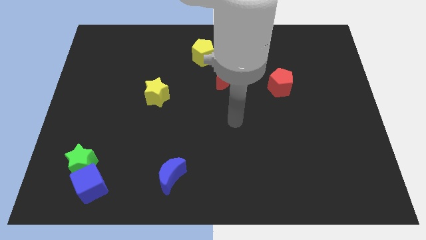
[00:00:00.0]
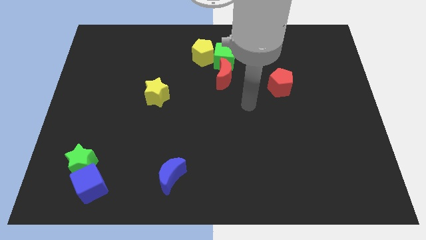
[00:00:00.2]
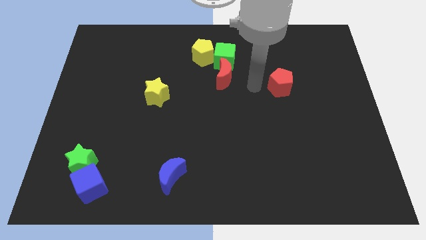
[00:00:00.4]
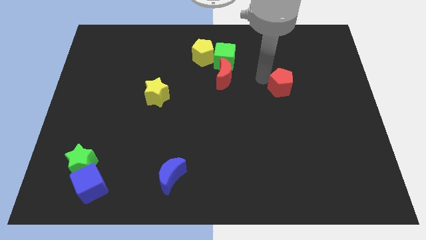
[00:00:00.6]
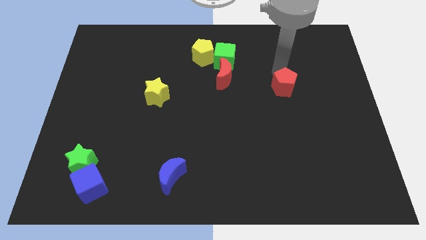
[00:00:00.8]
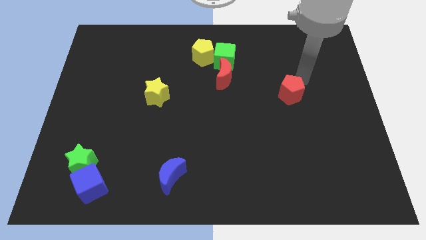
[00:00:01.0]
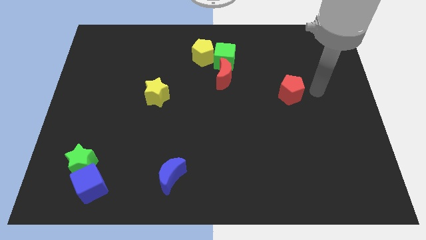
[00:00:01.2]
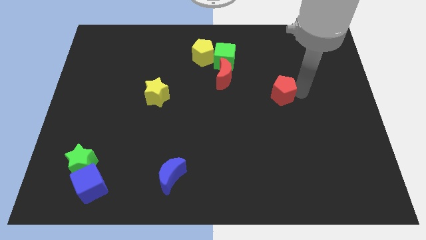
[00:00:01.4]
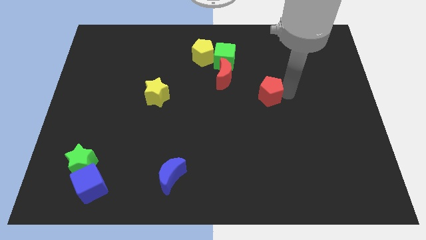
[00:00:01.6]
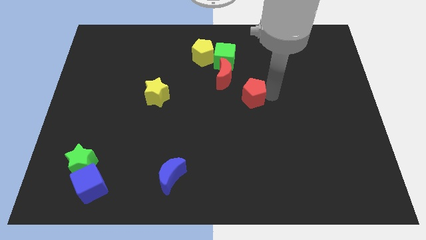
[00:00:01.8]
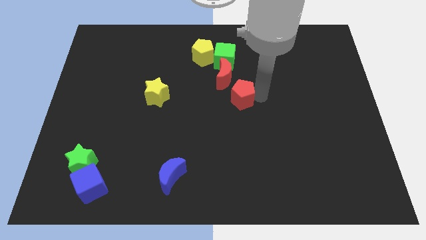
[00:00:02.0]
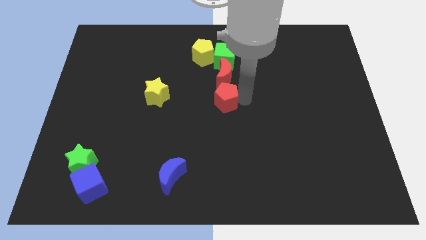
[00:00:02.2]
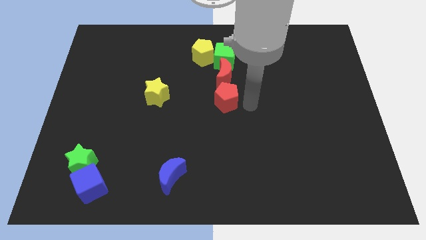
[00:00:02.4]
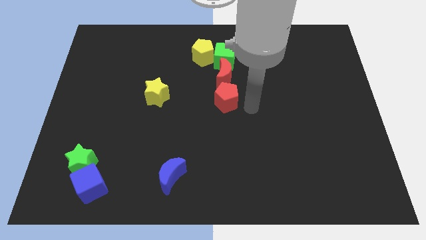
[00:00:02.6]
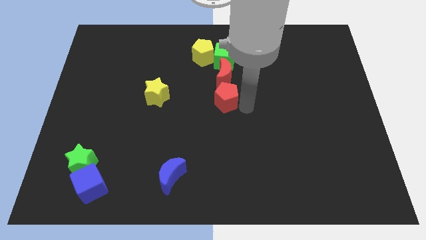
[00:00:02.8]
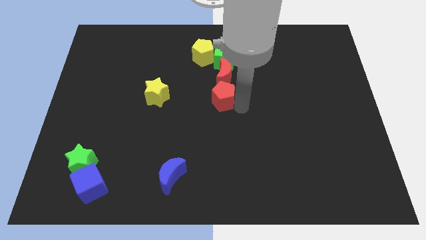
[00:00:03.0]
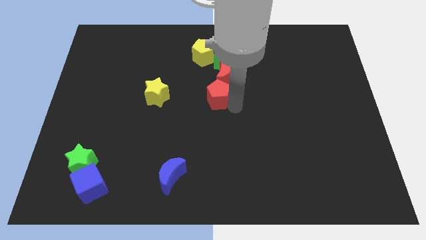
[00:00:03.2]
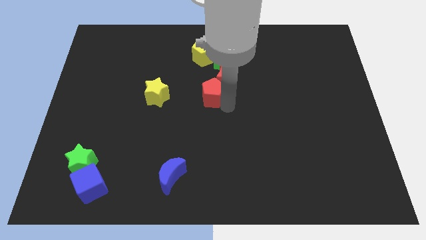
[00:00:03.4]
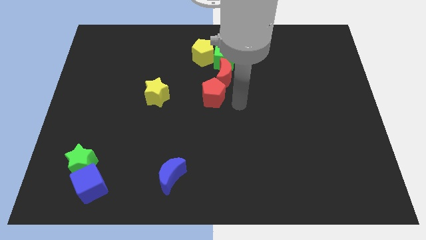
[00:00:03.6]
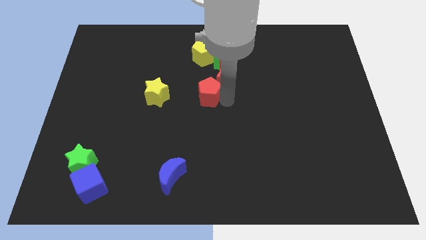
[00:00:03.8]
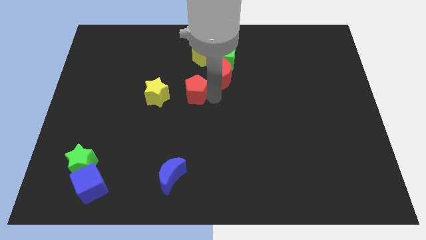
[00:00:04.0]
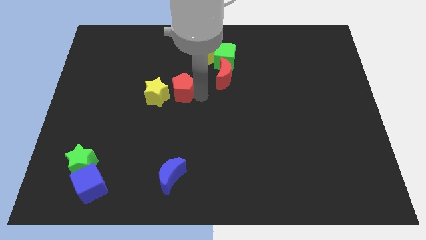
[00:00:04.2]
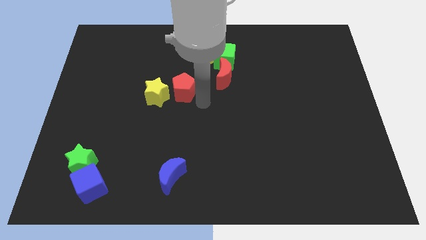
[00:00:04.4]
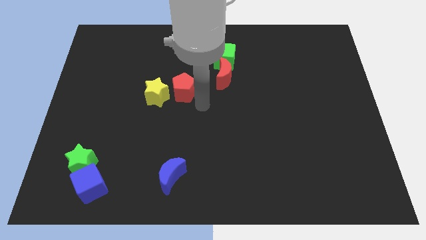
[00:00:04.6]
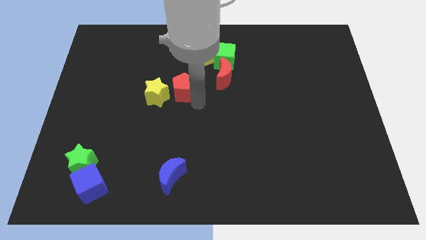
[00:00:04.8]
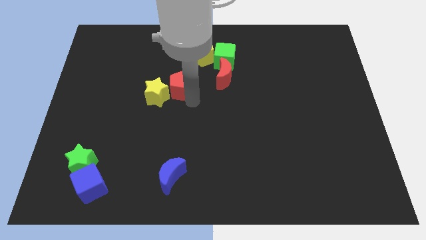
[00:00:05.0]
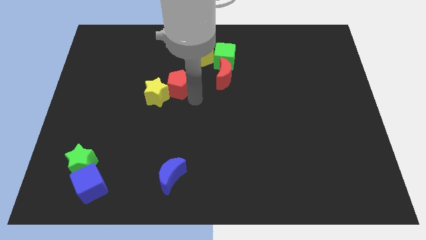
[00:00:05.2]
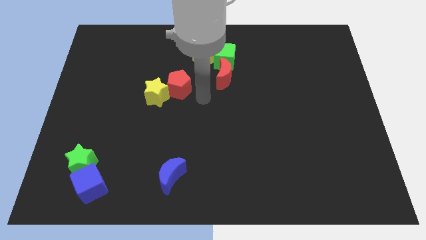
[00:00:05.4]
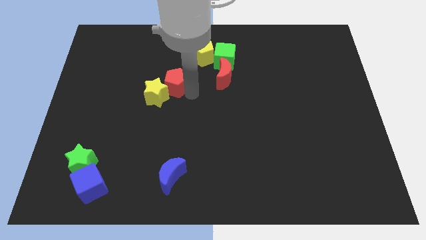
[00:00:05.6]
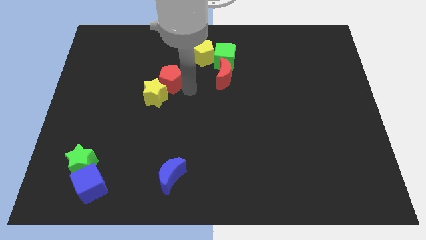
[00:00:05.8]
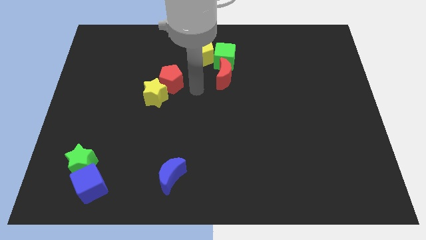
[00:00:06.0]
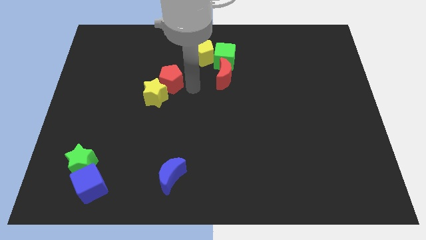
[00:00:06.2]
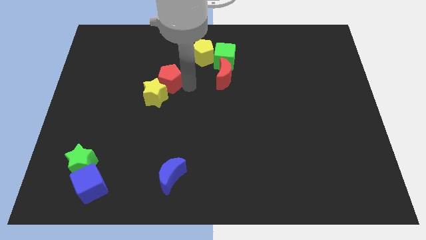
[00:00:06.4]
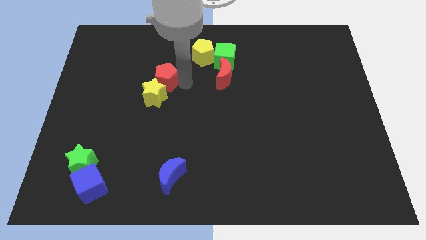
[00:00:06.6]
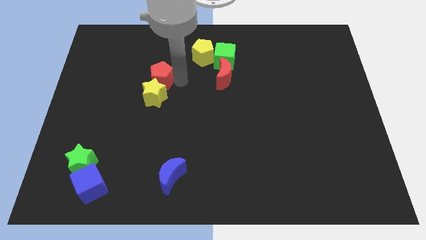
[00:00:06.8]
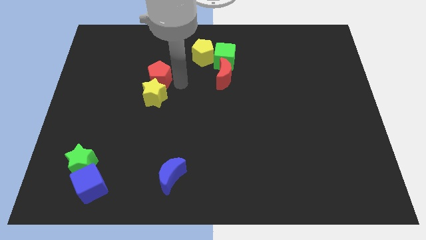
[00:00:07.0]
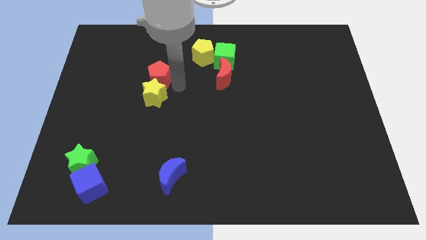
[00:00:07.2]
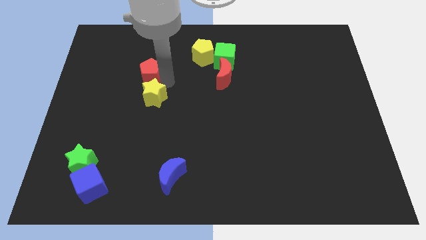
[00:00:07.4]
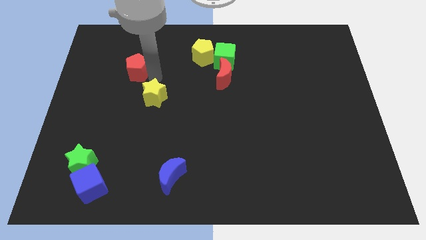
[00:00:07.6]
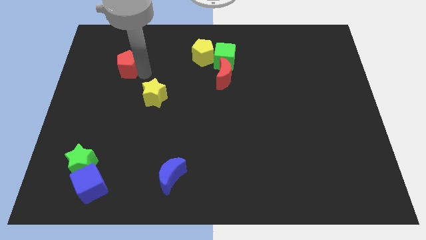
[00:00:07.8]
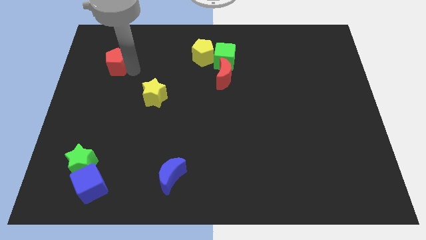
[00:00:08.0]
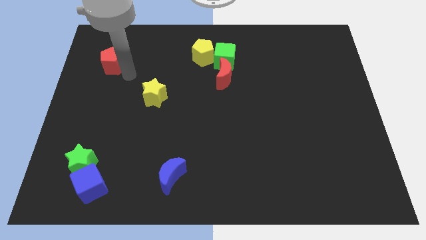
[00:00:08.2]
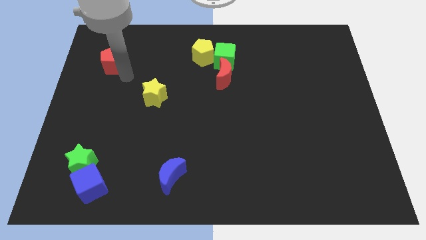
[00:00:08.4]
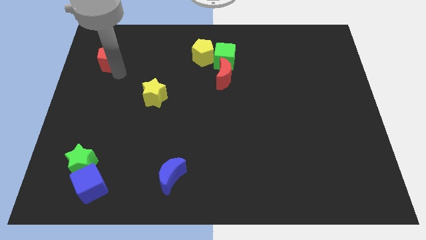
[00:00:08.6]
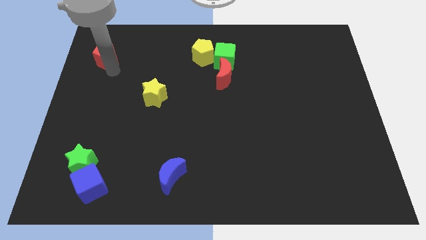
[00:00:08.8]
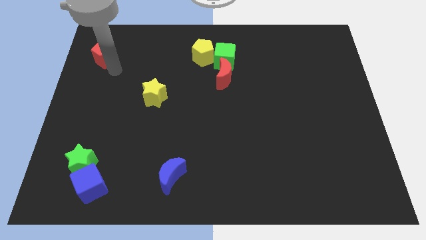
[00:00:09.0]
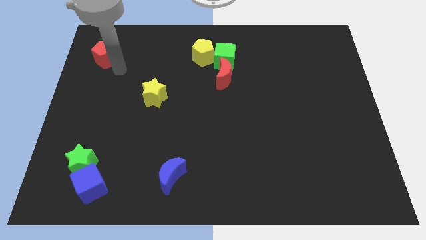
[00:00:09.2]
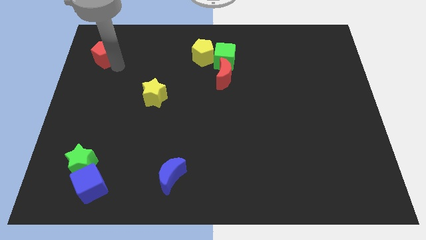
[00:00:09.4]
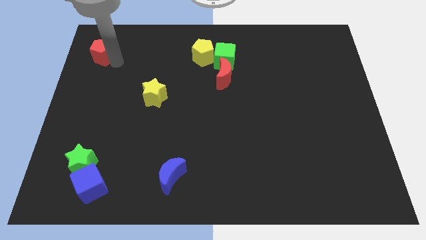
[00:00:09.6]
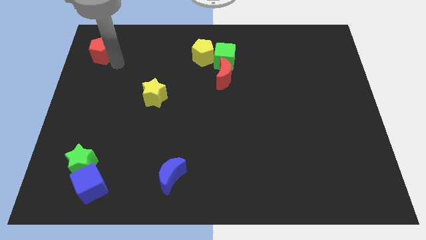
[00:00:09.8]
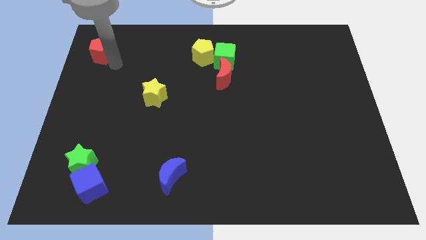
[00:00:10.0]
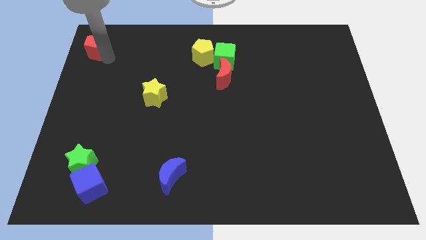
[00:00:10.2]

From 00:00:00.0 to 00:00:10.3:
slide the red pentagon to the top left of the board

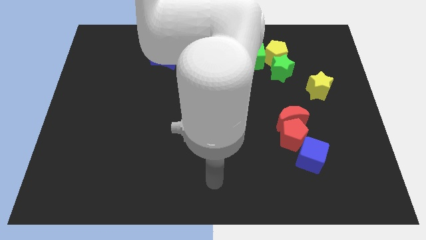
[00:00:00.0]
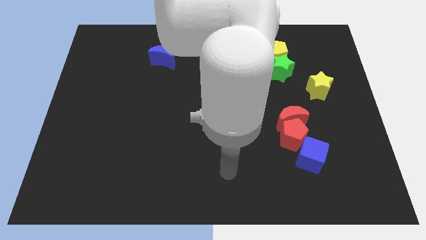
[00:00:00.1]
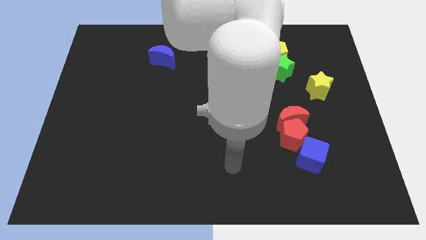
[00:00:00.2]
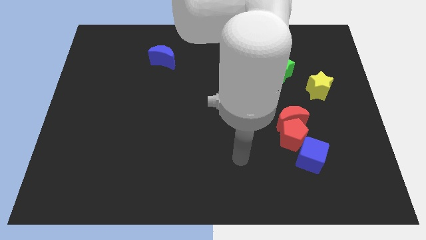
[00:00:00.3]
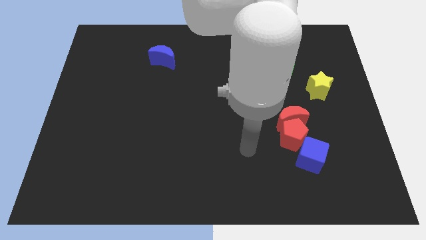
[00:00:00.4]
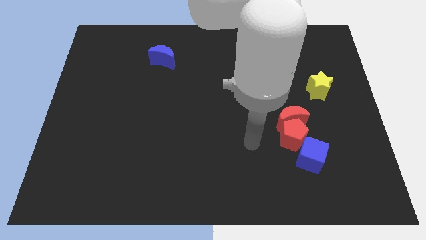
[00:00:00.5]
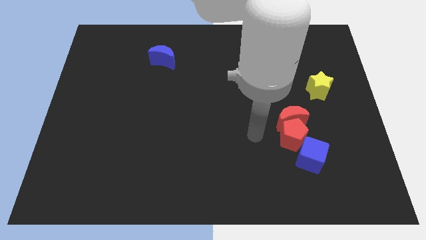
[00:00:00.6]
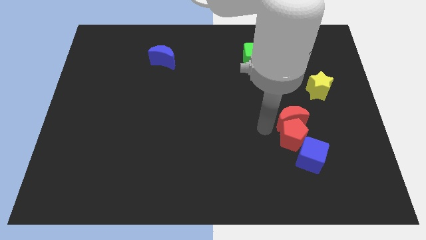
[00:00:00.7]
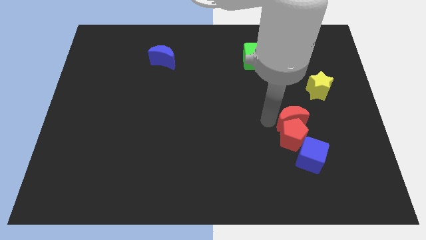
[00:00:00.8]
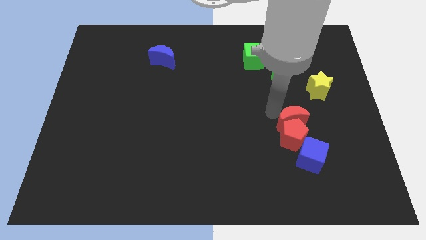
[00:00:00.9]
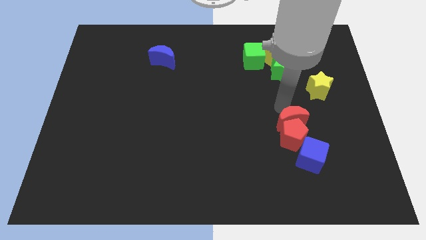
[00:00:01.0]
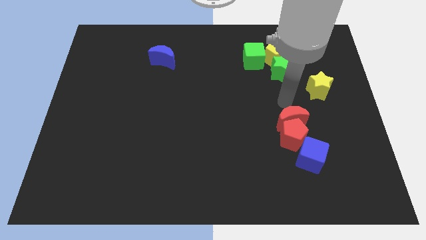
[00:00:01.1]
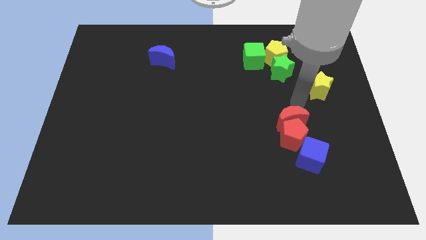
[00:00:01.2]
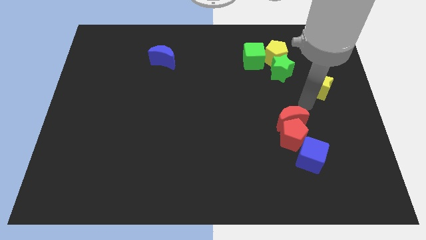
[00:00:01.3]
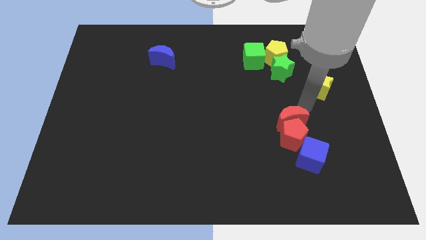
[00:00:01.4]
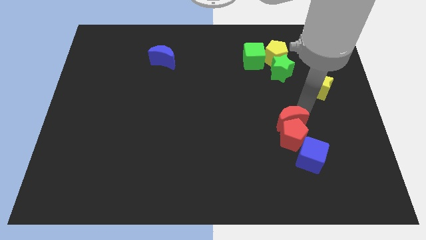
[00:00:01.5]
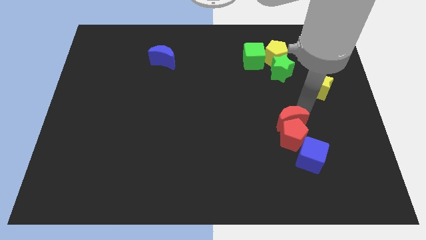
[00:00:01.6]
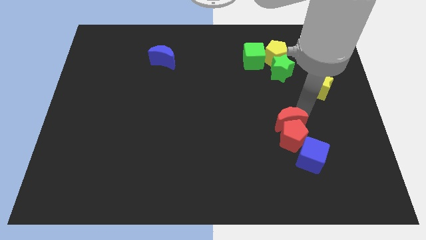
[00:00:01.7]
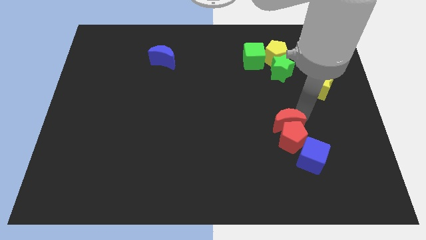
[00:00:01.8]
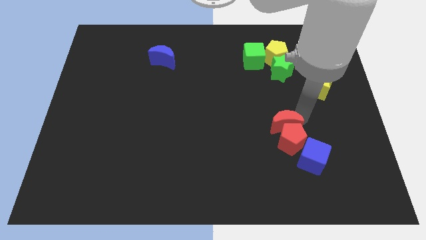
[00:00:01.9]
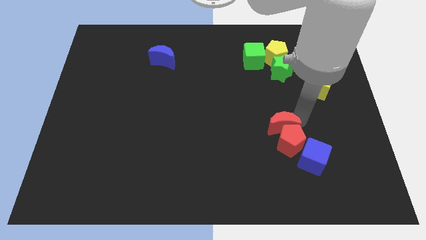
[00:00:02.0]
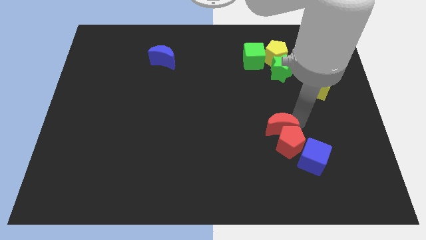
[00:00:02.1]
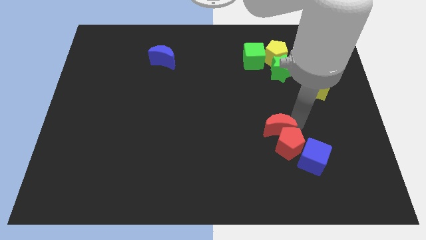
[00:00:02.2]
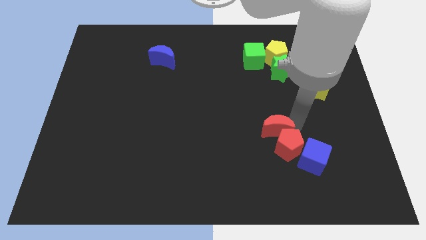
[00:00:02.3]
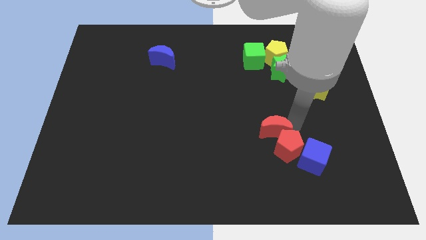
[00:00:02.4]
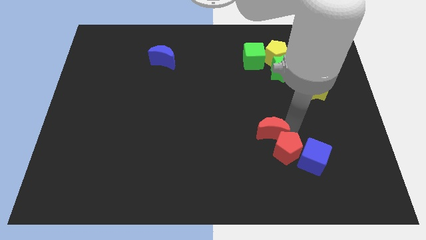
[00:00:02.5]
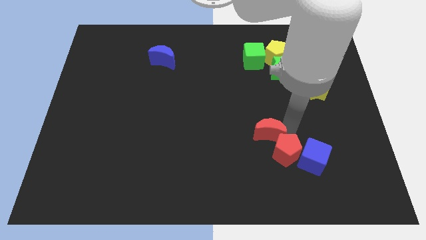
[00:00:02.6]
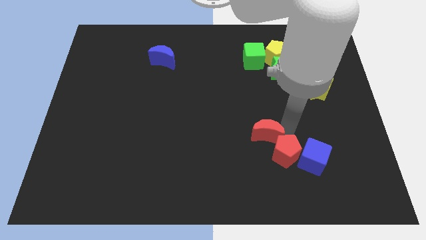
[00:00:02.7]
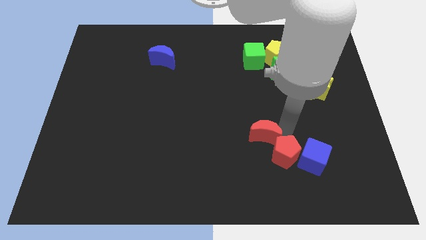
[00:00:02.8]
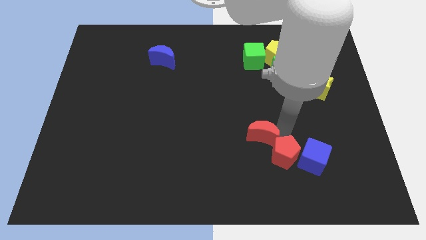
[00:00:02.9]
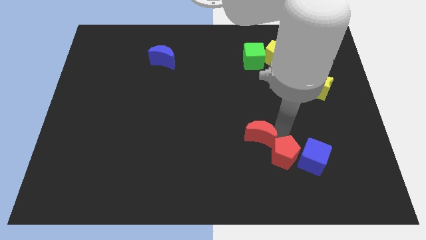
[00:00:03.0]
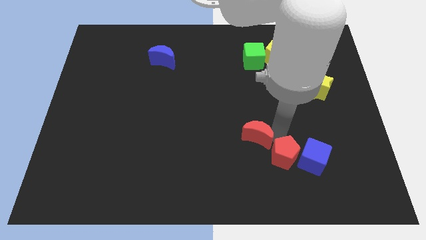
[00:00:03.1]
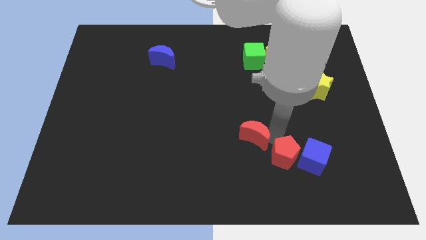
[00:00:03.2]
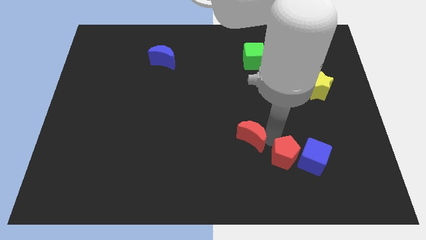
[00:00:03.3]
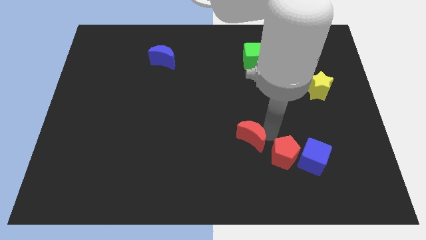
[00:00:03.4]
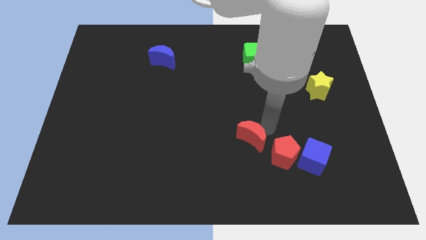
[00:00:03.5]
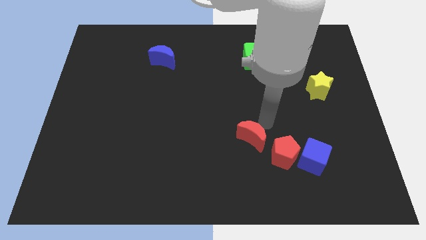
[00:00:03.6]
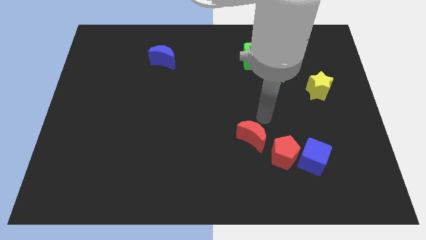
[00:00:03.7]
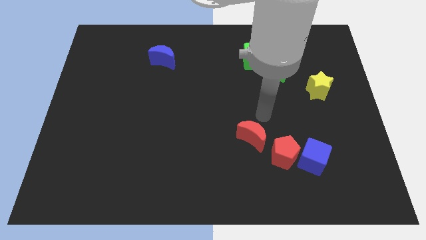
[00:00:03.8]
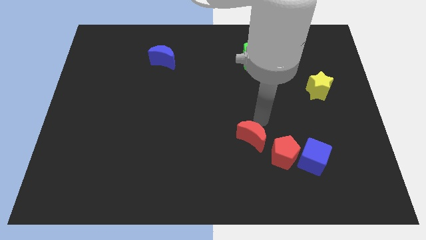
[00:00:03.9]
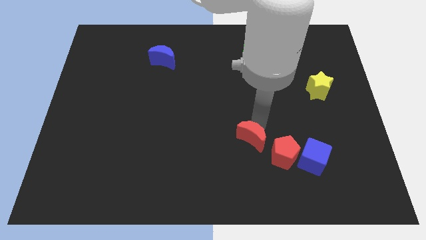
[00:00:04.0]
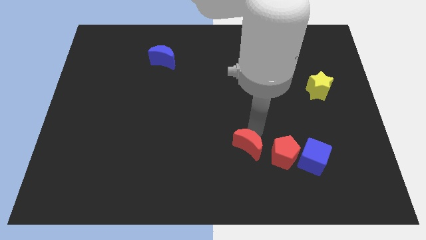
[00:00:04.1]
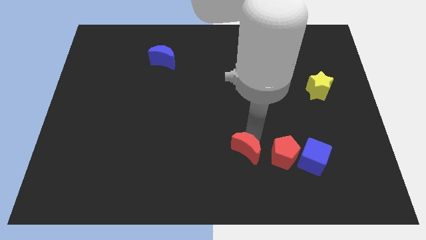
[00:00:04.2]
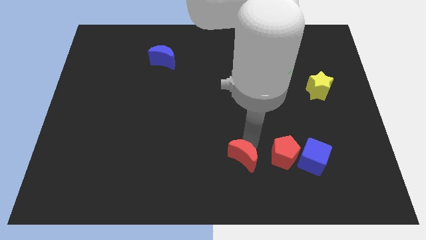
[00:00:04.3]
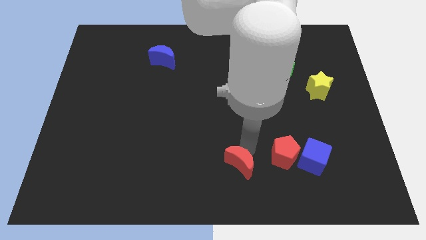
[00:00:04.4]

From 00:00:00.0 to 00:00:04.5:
slide the red moon to the bottom
